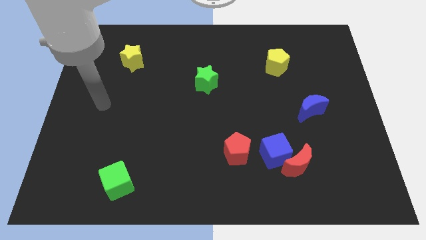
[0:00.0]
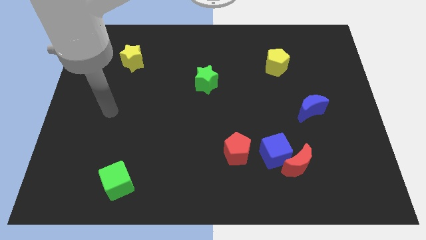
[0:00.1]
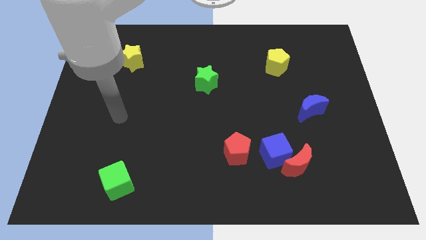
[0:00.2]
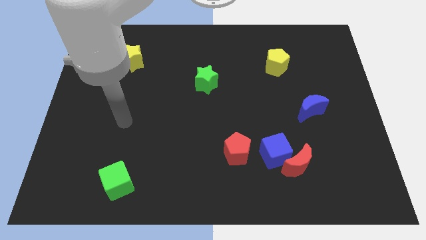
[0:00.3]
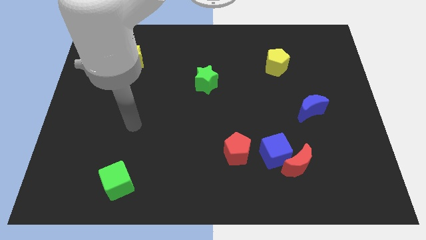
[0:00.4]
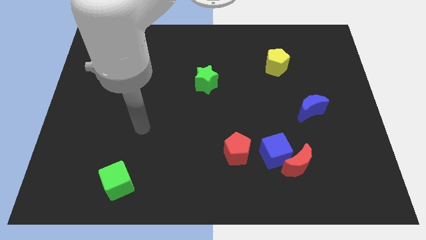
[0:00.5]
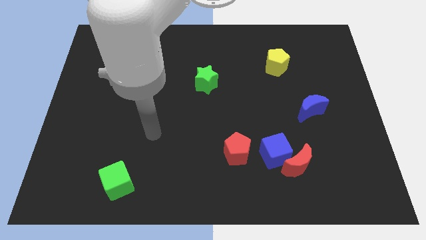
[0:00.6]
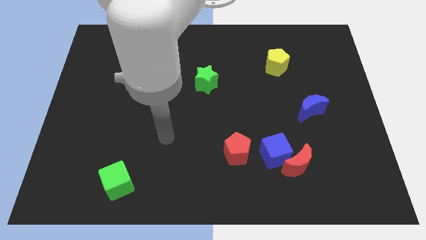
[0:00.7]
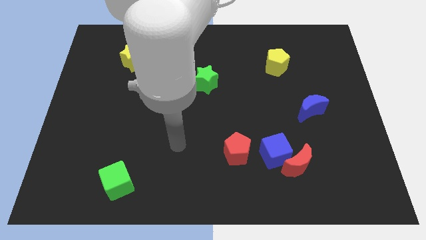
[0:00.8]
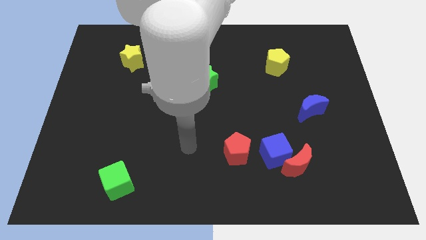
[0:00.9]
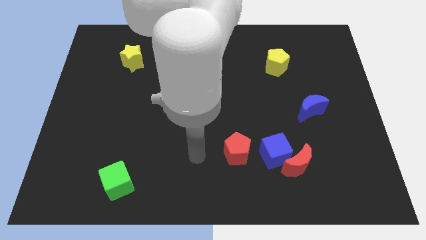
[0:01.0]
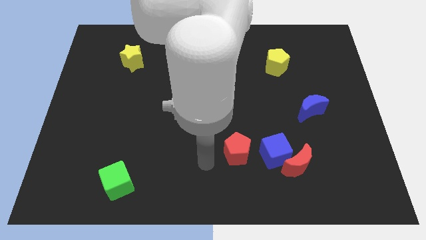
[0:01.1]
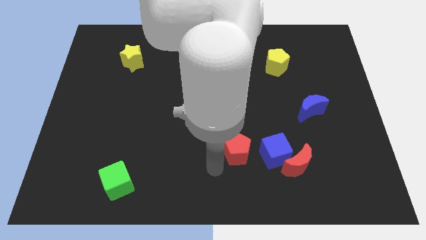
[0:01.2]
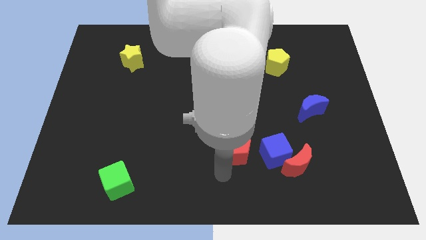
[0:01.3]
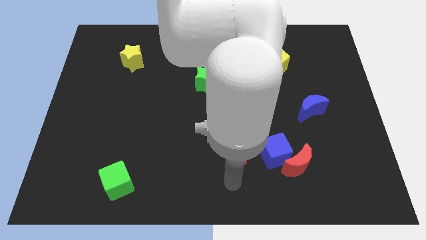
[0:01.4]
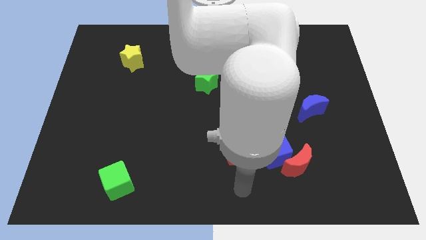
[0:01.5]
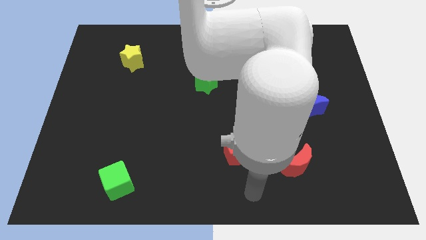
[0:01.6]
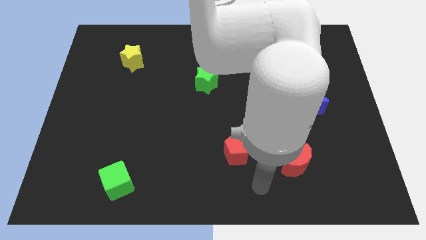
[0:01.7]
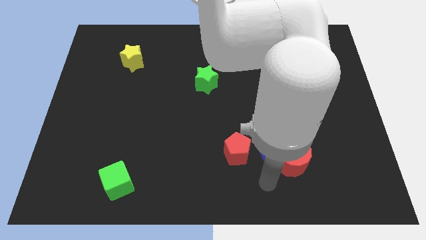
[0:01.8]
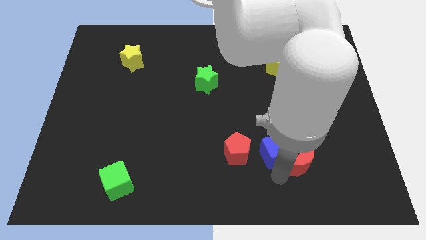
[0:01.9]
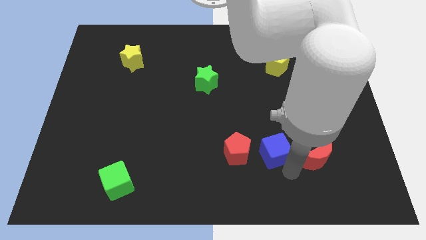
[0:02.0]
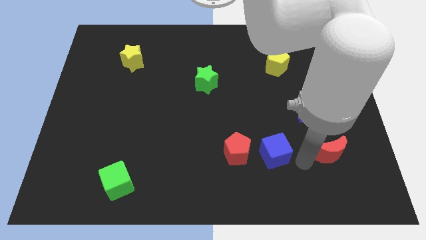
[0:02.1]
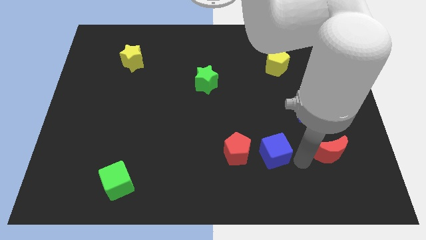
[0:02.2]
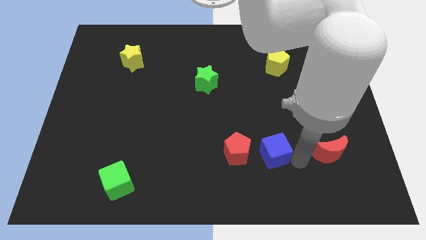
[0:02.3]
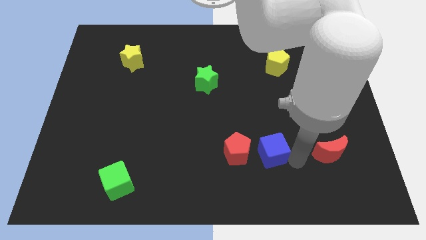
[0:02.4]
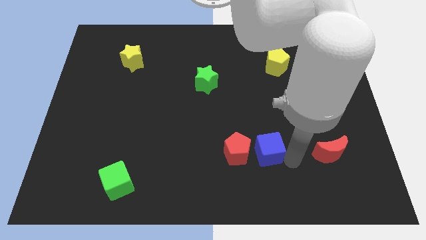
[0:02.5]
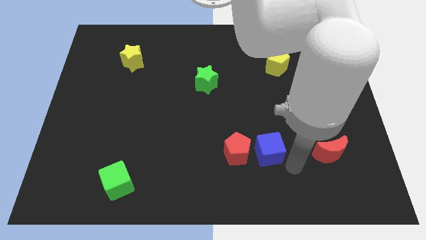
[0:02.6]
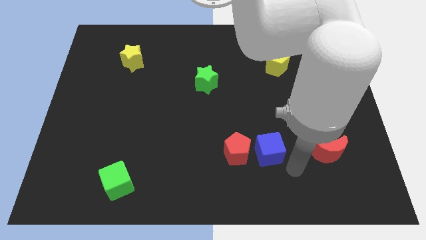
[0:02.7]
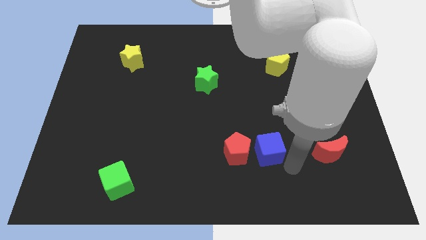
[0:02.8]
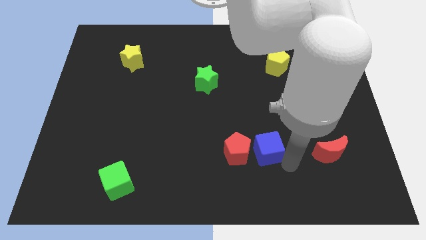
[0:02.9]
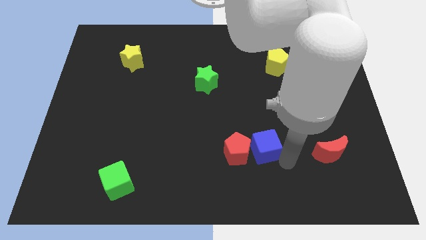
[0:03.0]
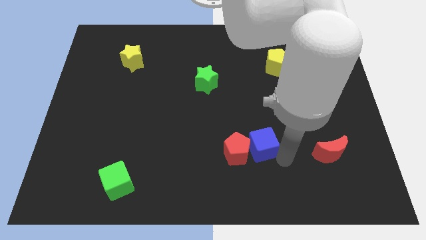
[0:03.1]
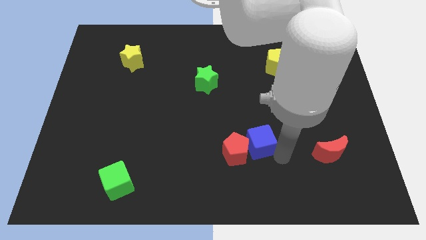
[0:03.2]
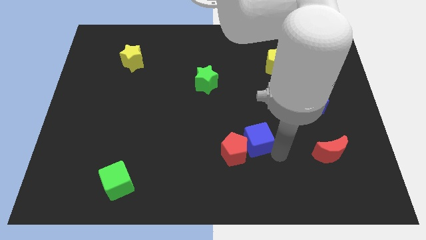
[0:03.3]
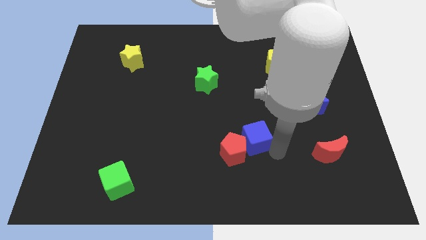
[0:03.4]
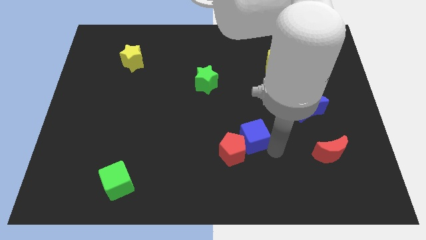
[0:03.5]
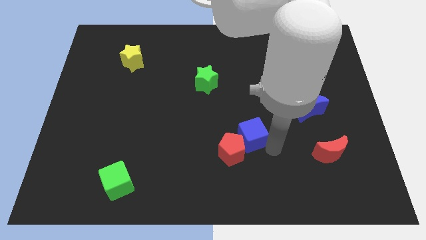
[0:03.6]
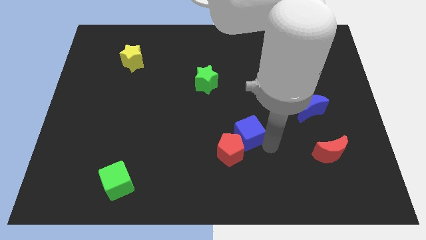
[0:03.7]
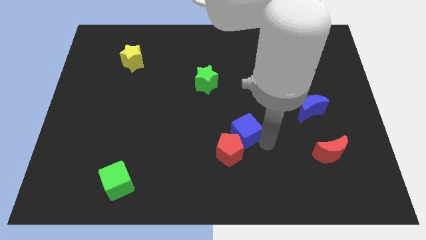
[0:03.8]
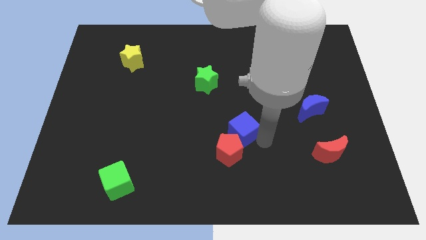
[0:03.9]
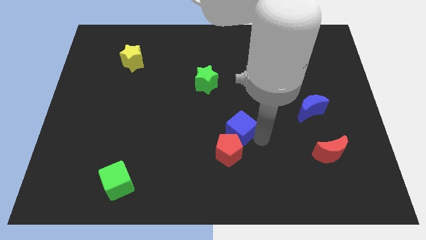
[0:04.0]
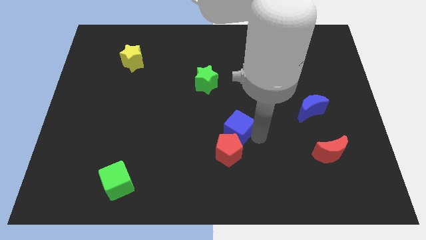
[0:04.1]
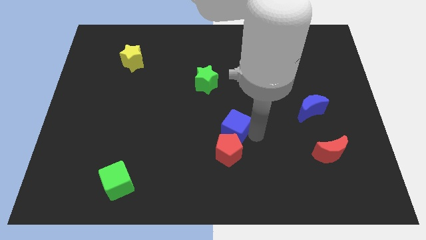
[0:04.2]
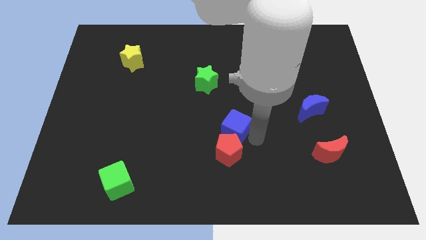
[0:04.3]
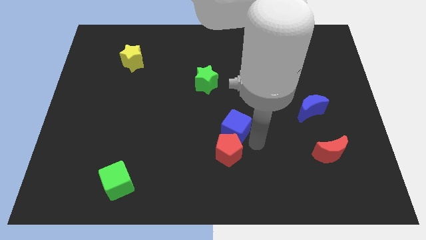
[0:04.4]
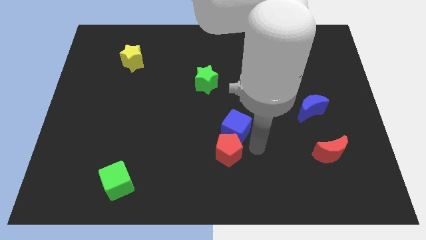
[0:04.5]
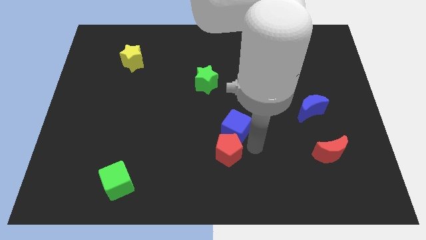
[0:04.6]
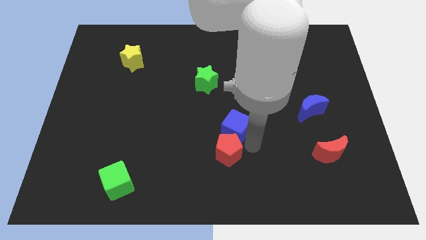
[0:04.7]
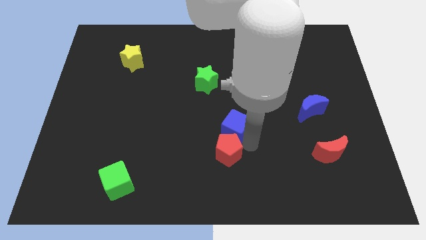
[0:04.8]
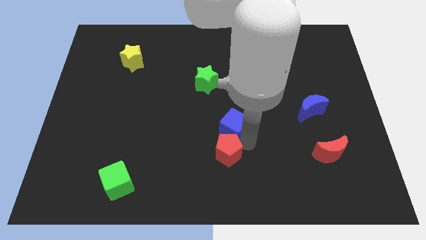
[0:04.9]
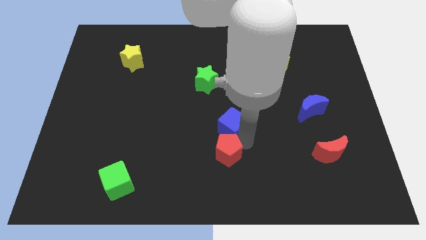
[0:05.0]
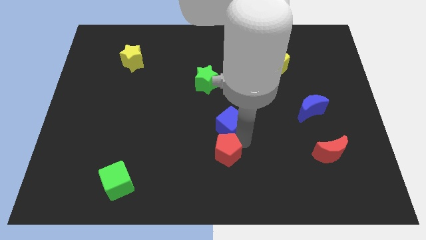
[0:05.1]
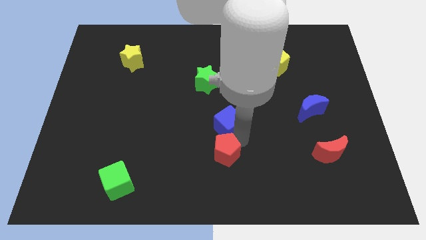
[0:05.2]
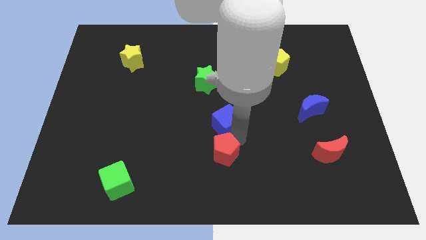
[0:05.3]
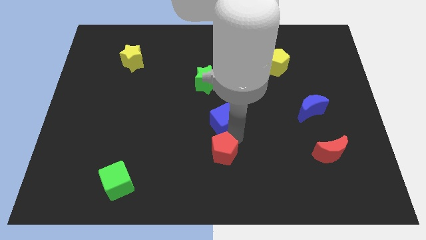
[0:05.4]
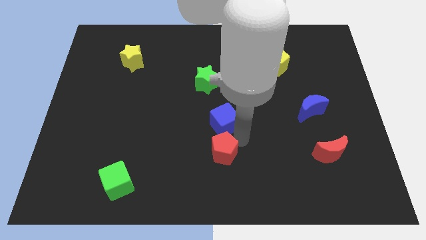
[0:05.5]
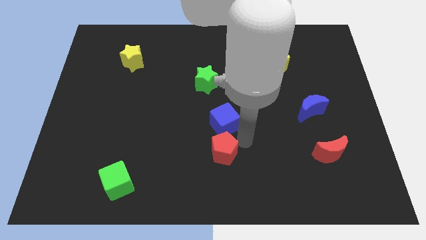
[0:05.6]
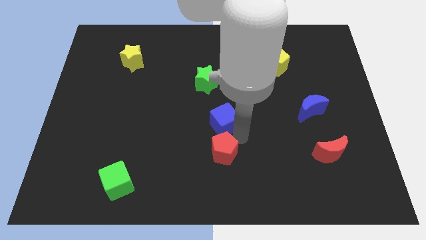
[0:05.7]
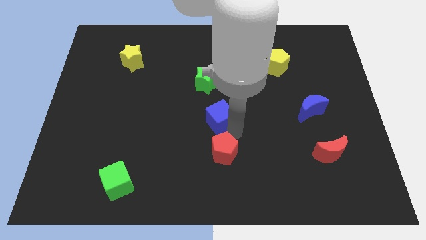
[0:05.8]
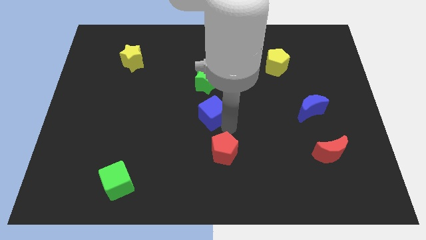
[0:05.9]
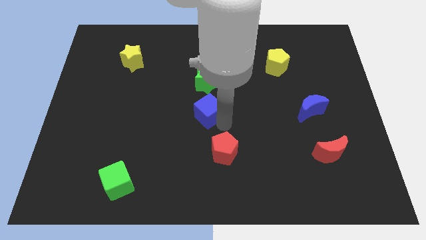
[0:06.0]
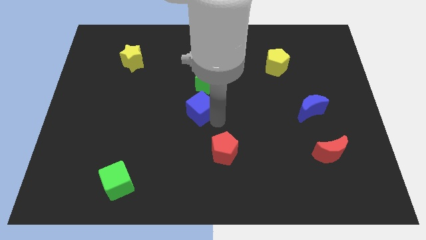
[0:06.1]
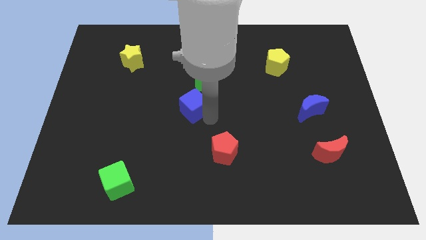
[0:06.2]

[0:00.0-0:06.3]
move the blue cube upwards and then to the left

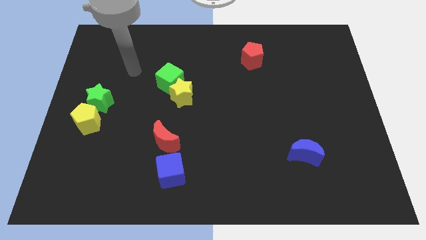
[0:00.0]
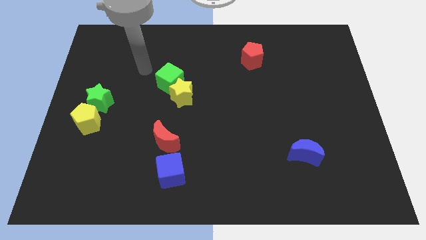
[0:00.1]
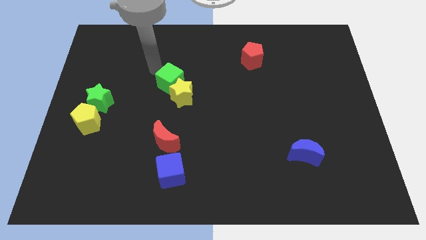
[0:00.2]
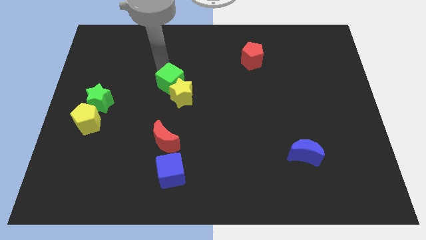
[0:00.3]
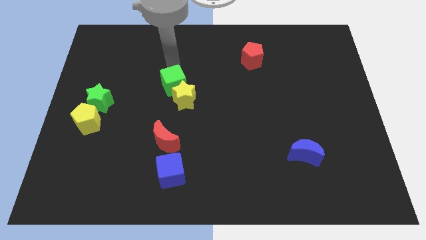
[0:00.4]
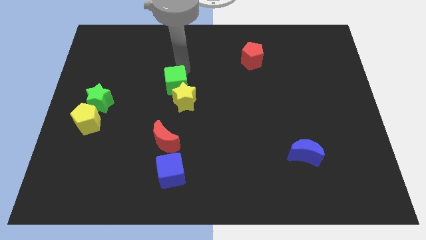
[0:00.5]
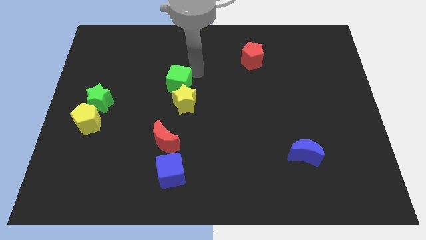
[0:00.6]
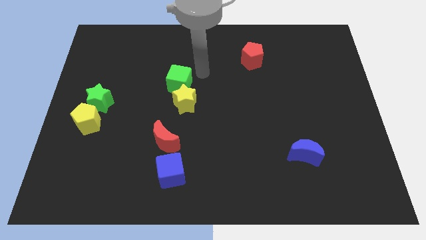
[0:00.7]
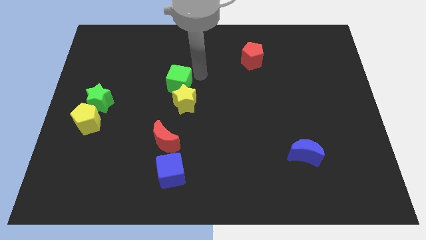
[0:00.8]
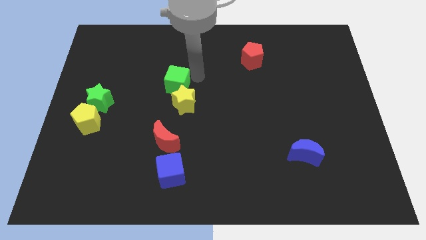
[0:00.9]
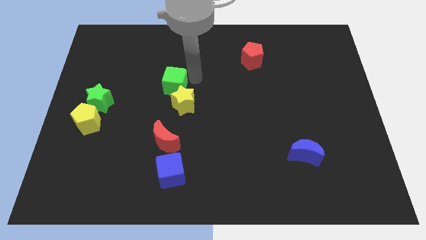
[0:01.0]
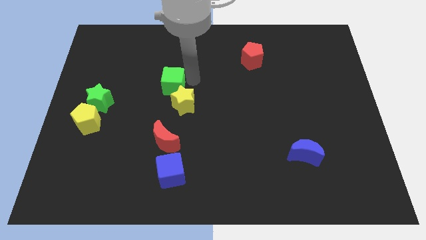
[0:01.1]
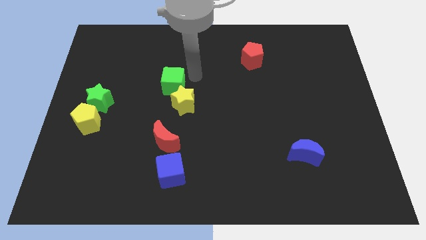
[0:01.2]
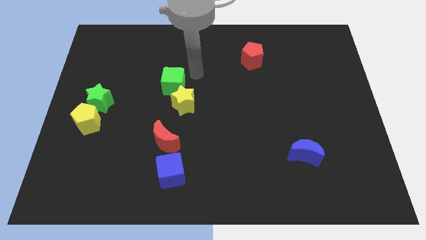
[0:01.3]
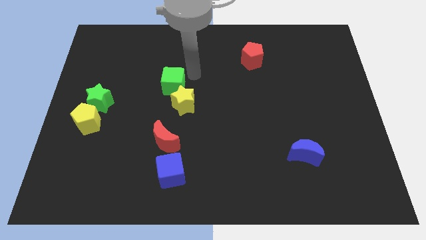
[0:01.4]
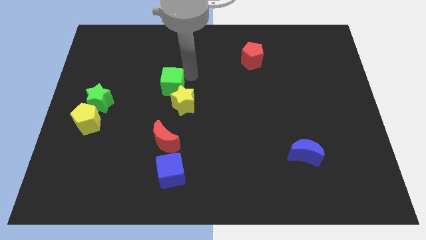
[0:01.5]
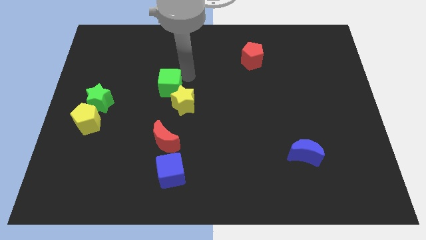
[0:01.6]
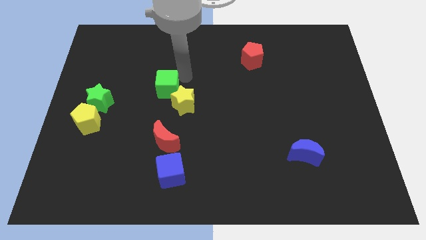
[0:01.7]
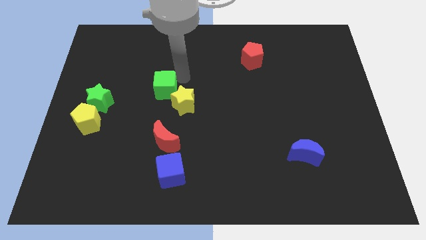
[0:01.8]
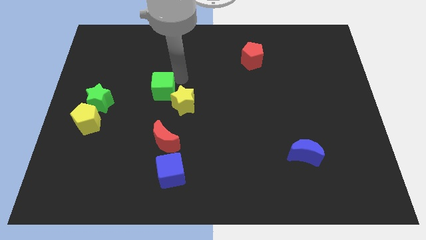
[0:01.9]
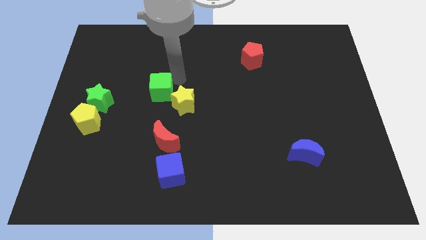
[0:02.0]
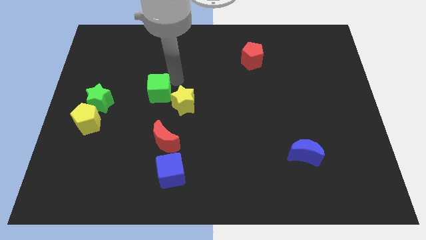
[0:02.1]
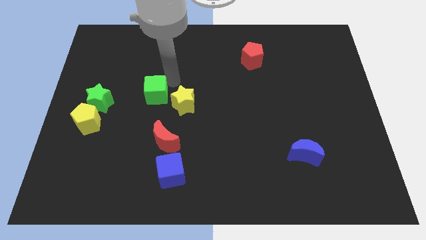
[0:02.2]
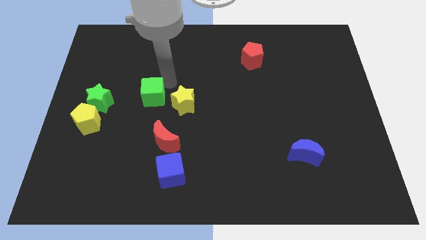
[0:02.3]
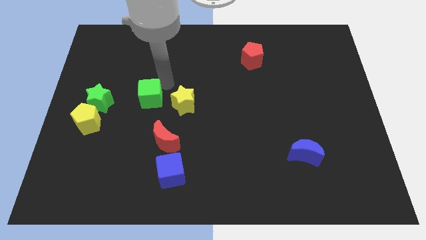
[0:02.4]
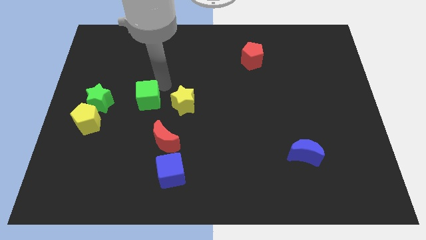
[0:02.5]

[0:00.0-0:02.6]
slightly push the green cube down and left diagonally
